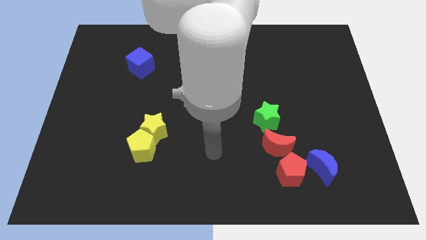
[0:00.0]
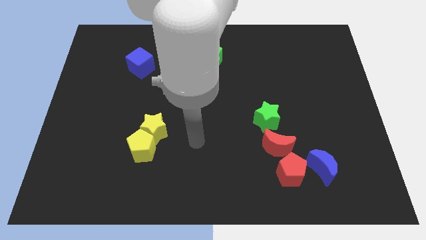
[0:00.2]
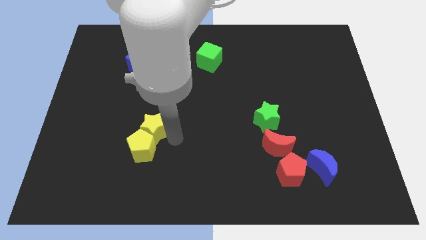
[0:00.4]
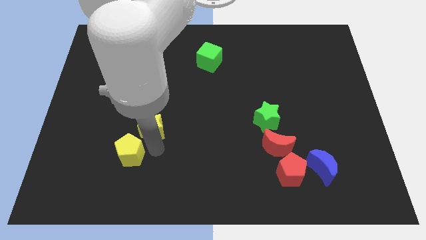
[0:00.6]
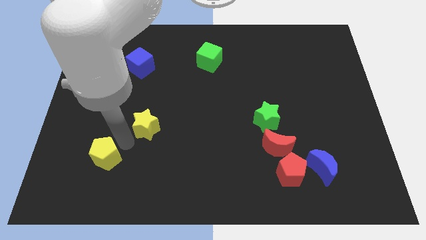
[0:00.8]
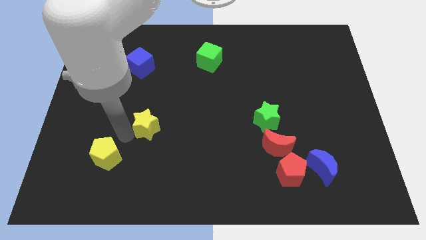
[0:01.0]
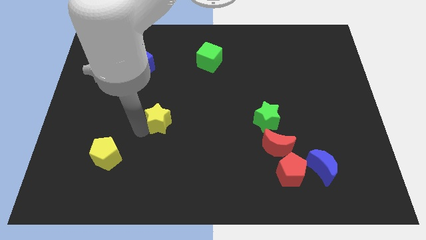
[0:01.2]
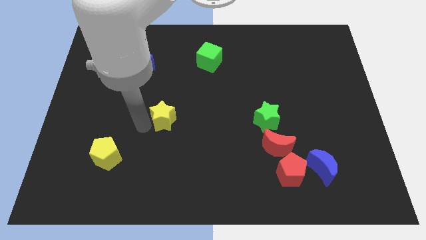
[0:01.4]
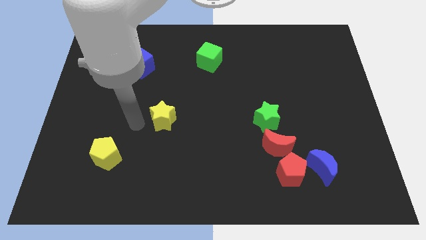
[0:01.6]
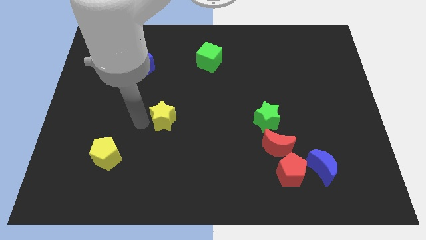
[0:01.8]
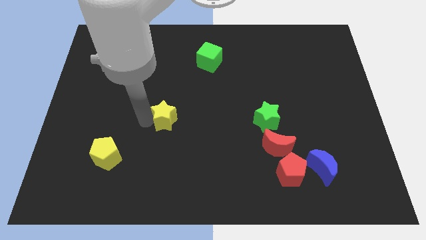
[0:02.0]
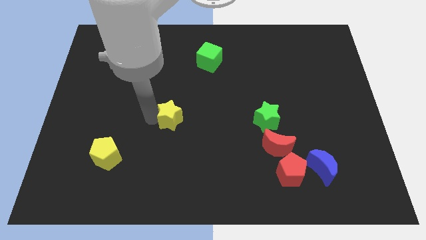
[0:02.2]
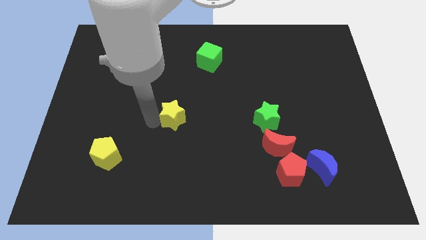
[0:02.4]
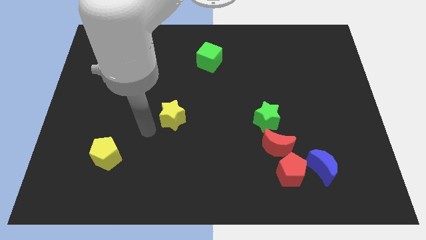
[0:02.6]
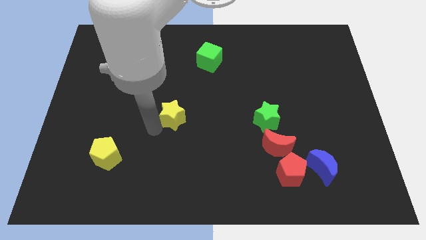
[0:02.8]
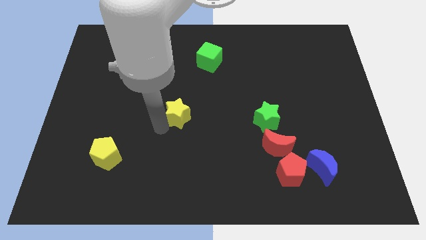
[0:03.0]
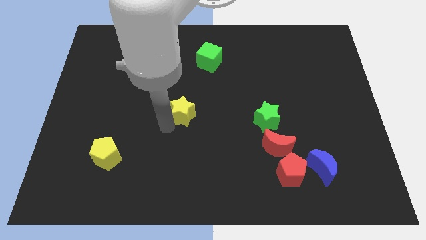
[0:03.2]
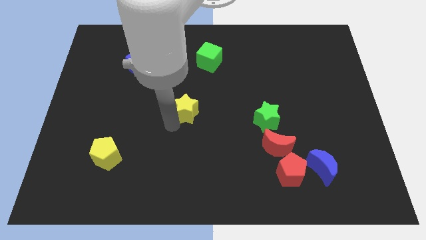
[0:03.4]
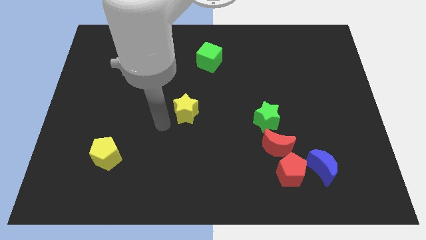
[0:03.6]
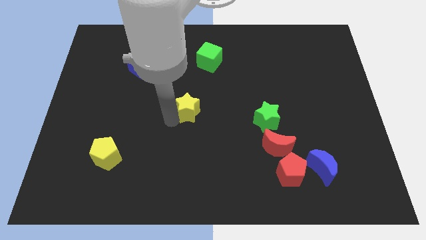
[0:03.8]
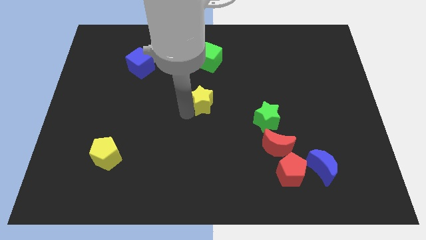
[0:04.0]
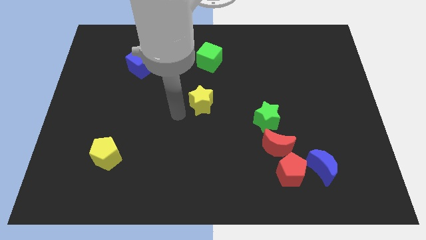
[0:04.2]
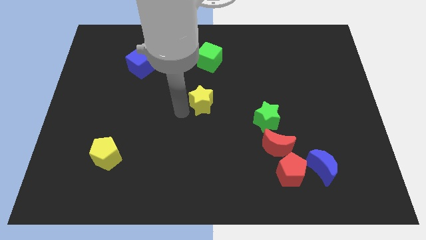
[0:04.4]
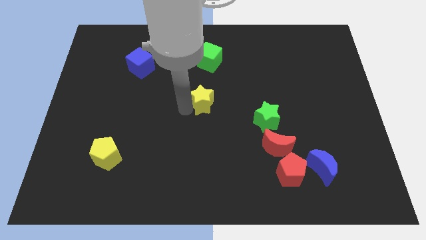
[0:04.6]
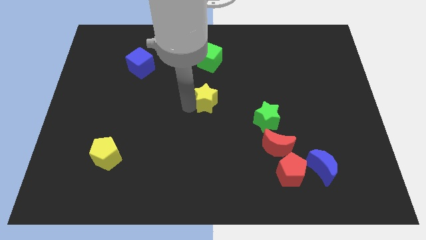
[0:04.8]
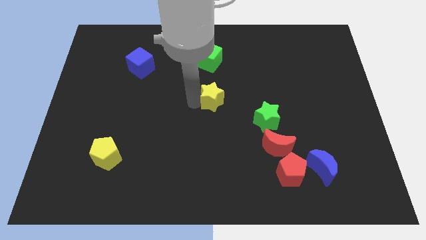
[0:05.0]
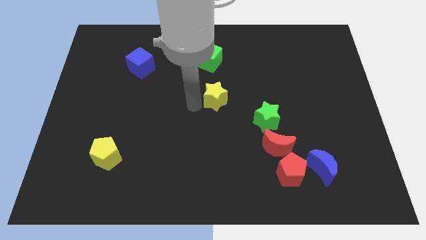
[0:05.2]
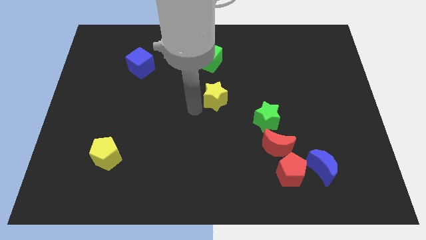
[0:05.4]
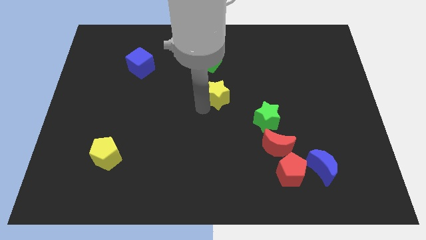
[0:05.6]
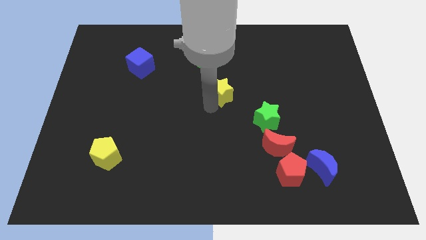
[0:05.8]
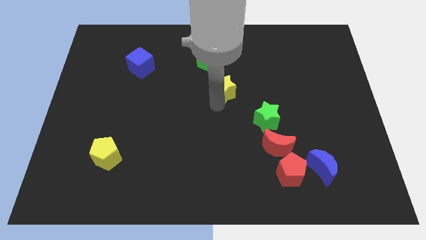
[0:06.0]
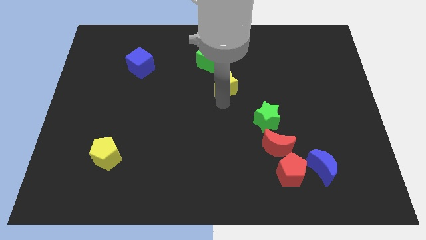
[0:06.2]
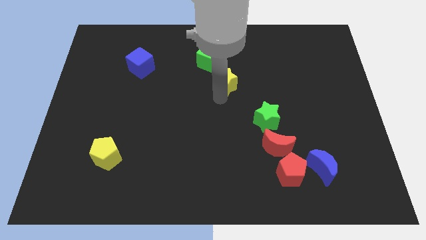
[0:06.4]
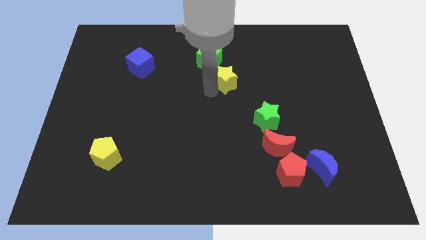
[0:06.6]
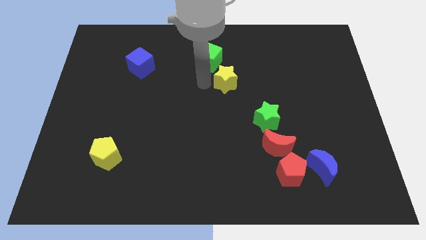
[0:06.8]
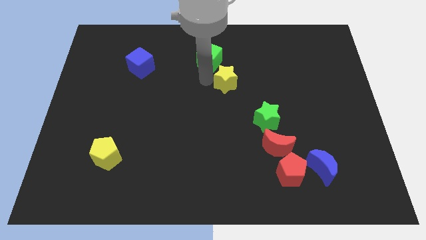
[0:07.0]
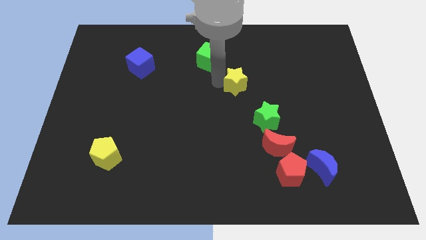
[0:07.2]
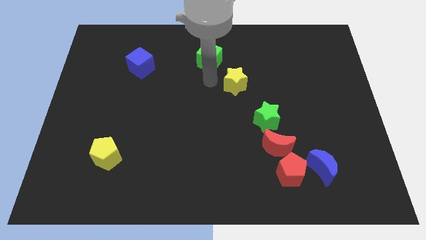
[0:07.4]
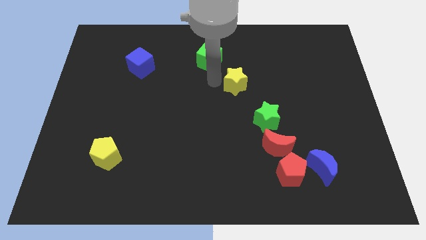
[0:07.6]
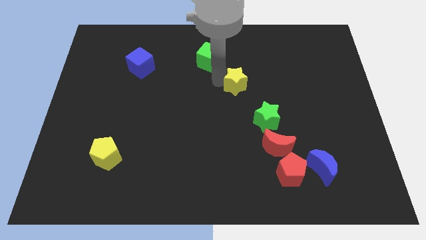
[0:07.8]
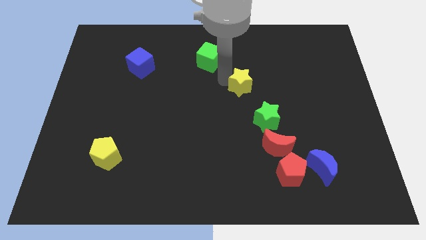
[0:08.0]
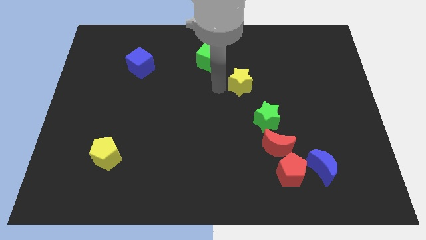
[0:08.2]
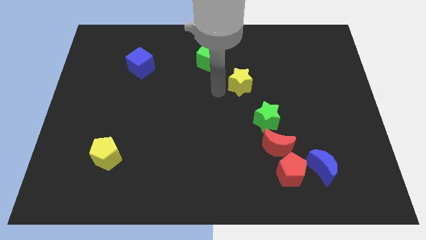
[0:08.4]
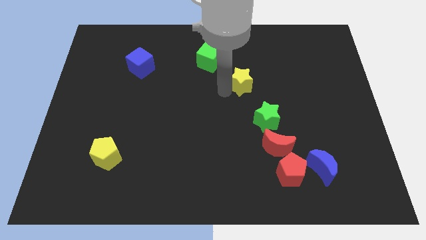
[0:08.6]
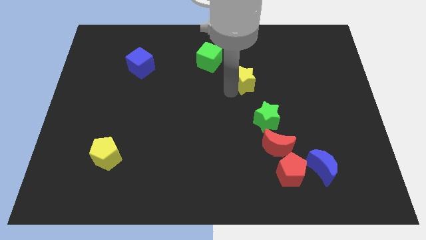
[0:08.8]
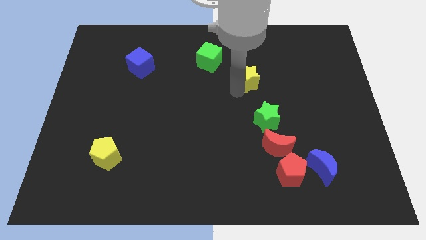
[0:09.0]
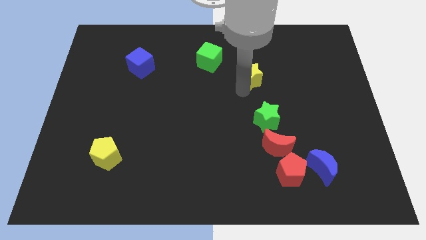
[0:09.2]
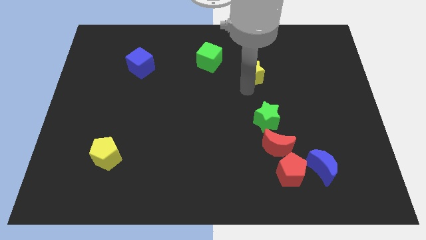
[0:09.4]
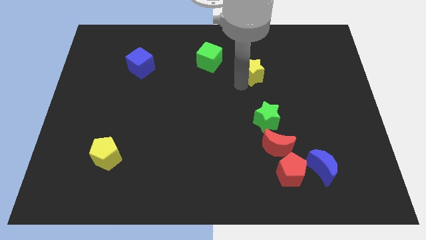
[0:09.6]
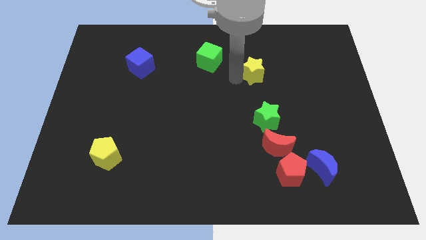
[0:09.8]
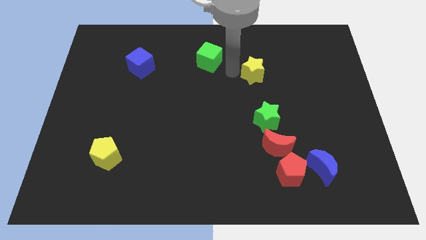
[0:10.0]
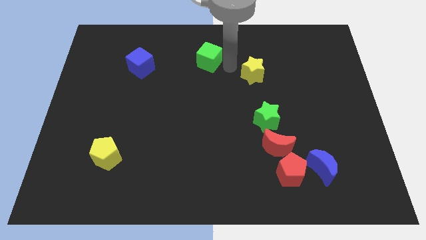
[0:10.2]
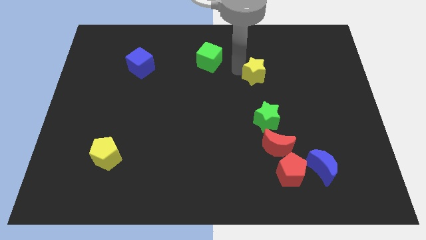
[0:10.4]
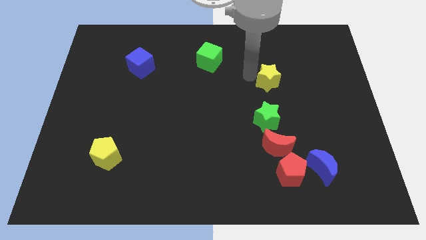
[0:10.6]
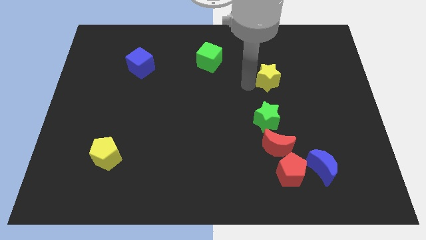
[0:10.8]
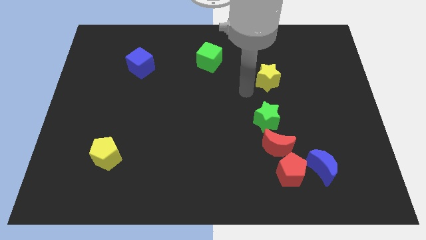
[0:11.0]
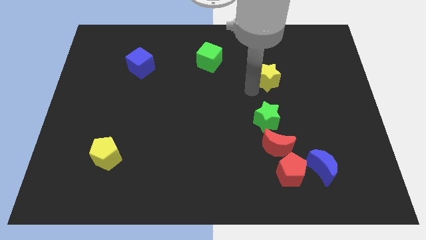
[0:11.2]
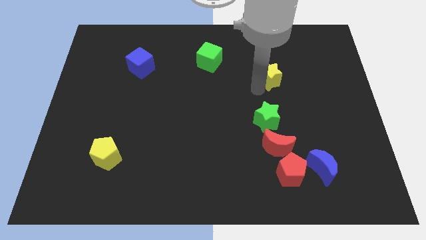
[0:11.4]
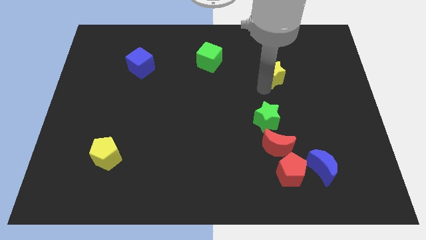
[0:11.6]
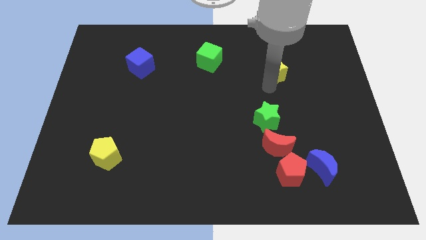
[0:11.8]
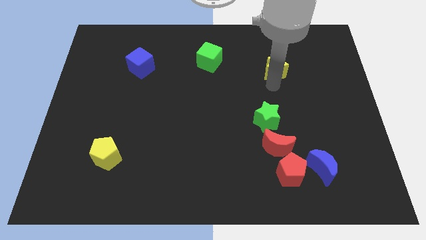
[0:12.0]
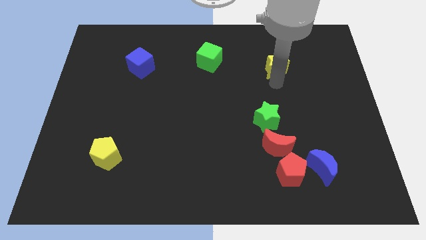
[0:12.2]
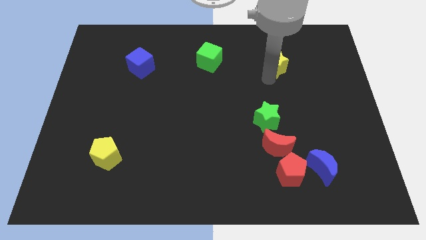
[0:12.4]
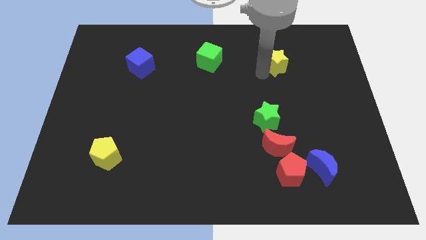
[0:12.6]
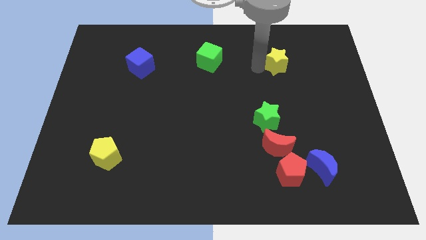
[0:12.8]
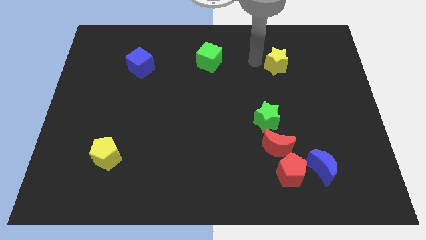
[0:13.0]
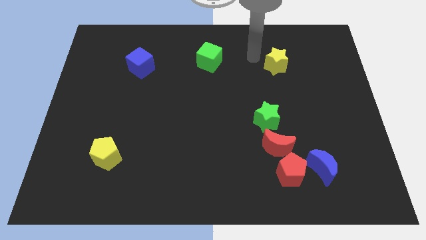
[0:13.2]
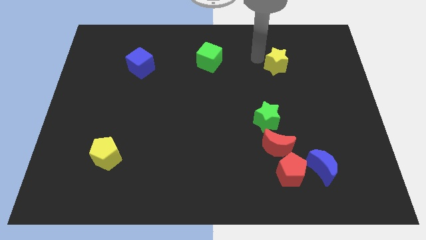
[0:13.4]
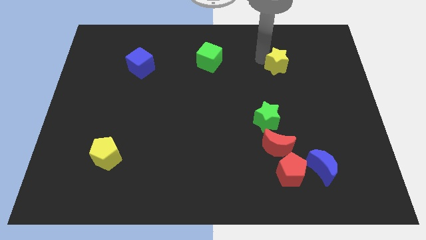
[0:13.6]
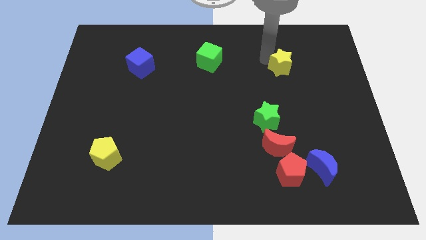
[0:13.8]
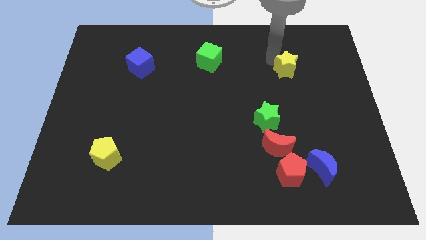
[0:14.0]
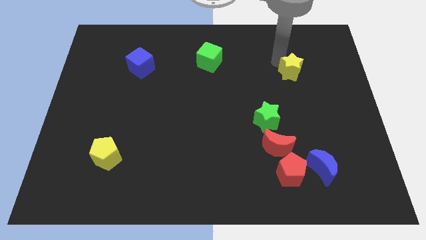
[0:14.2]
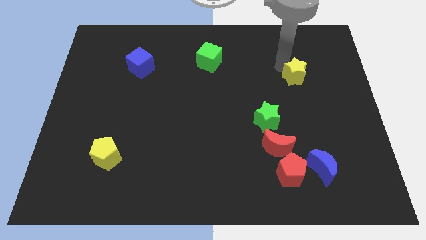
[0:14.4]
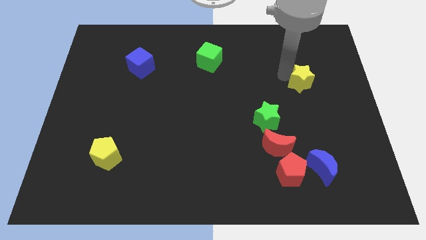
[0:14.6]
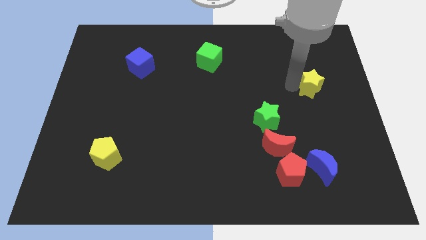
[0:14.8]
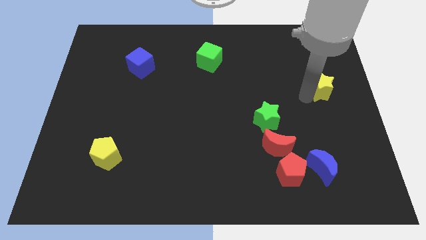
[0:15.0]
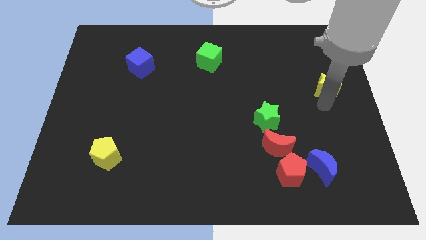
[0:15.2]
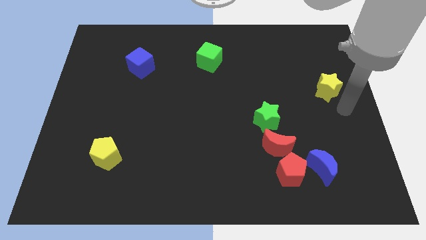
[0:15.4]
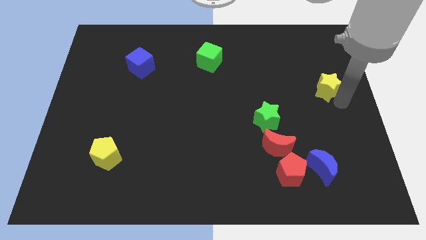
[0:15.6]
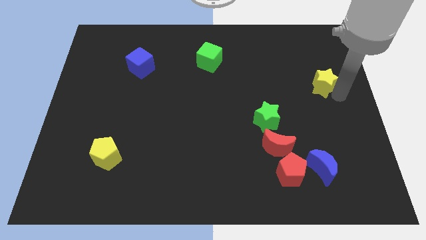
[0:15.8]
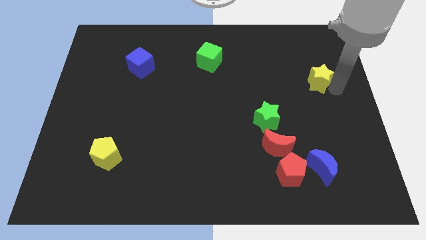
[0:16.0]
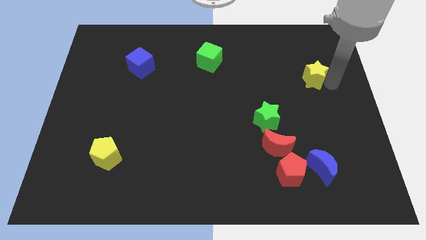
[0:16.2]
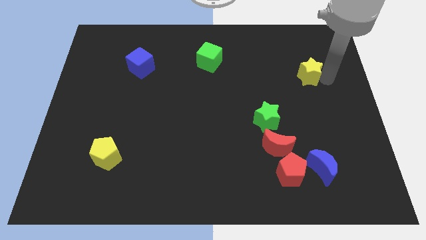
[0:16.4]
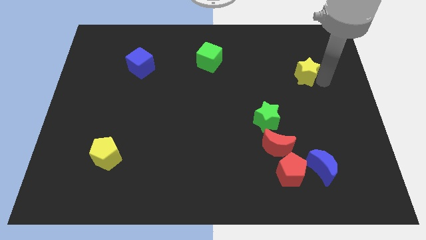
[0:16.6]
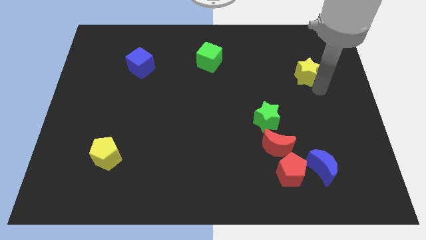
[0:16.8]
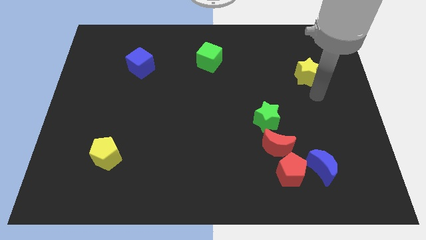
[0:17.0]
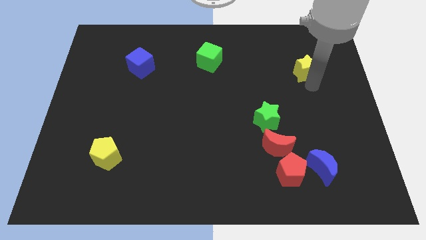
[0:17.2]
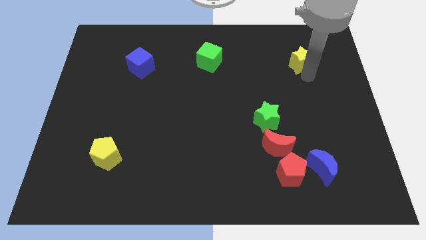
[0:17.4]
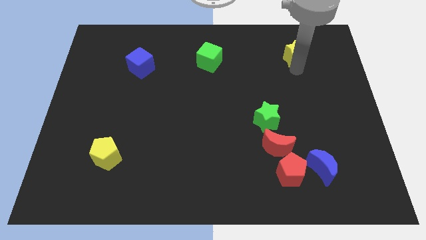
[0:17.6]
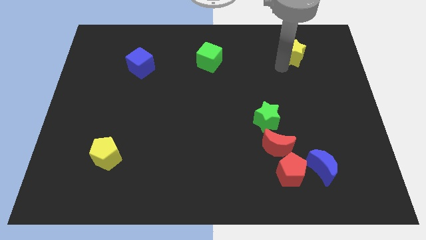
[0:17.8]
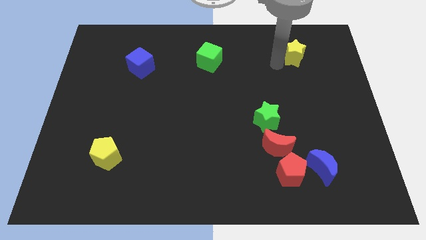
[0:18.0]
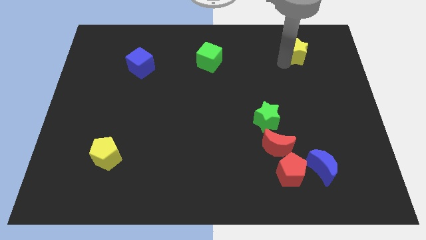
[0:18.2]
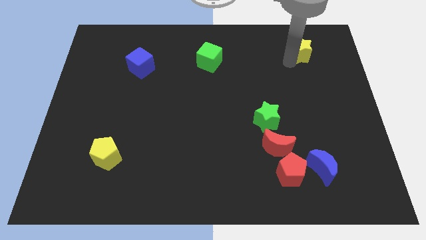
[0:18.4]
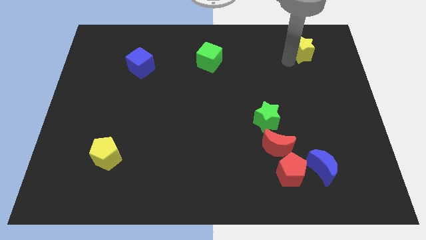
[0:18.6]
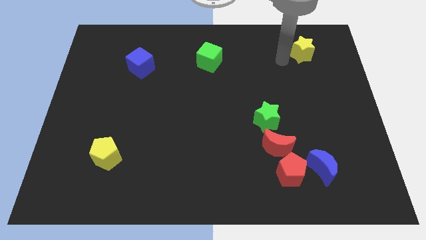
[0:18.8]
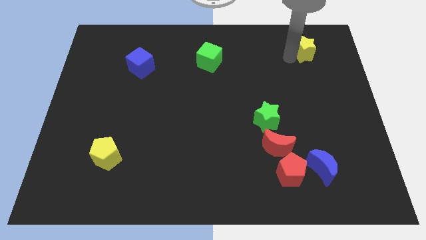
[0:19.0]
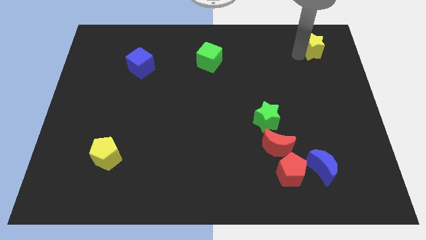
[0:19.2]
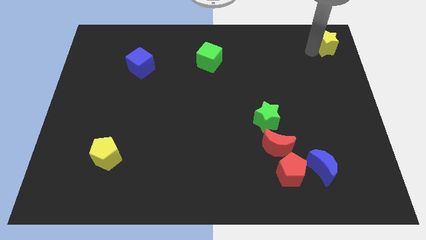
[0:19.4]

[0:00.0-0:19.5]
push the yellow star to the top right
